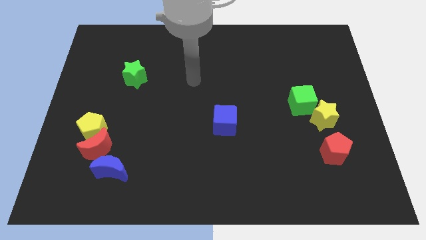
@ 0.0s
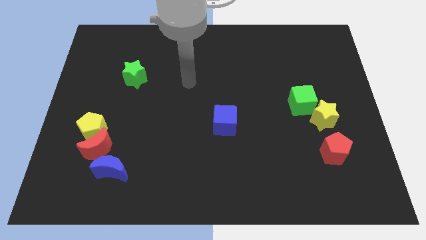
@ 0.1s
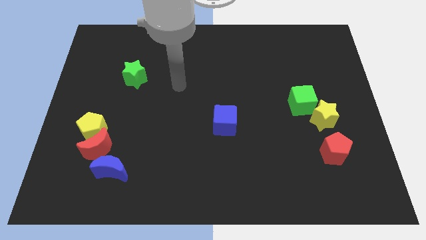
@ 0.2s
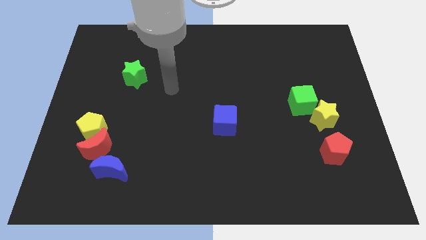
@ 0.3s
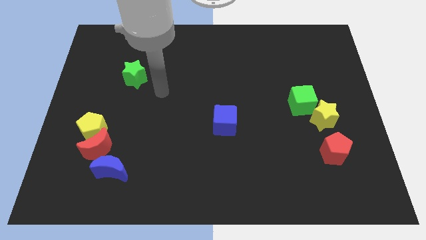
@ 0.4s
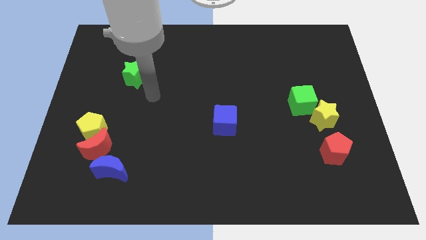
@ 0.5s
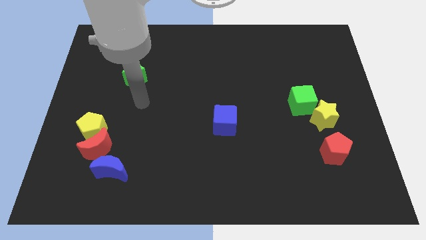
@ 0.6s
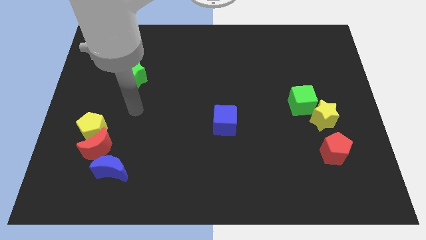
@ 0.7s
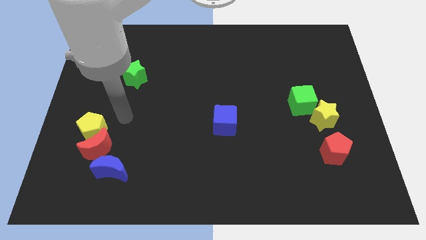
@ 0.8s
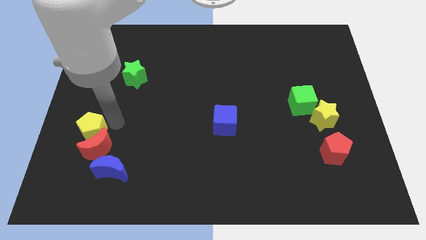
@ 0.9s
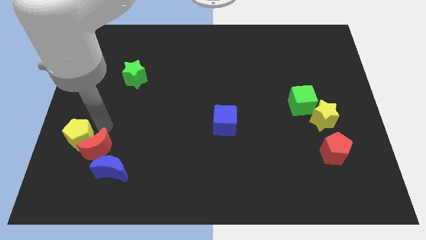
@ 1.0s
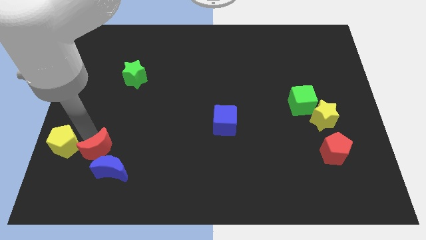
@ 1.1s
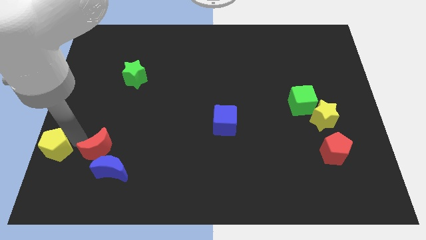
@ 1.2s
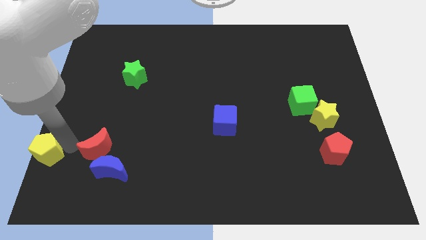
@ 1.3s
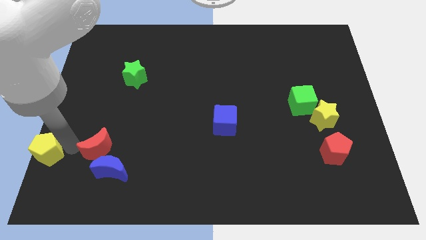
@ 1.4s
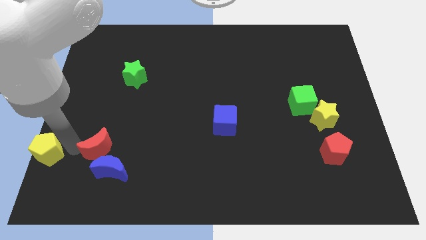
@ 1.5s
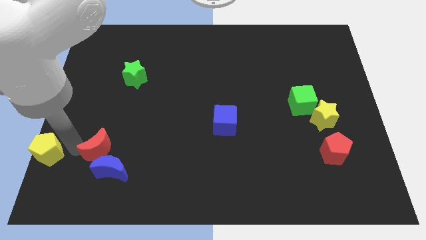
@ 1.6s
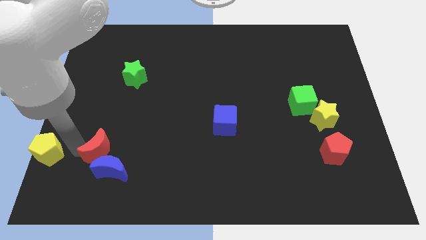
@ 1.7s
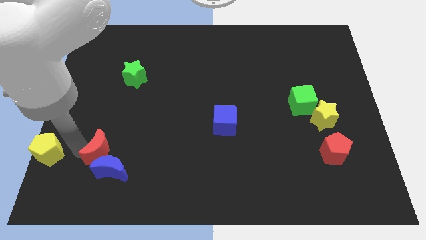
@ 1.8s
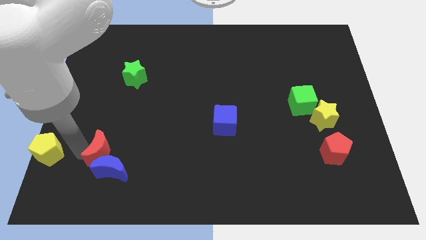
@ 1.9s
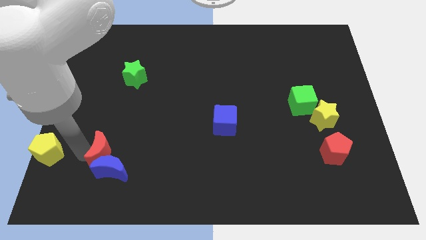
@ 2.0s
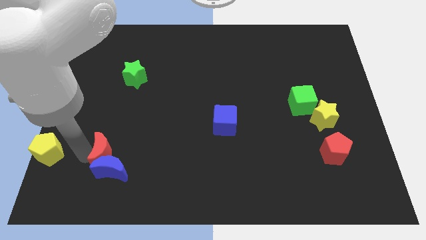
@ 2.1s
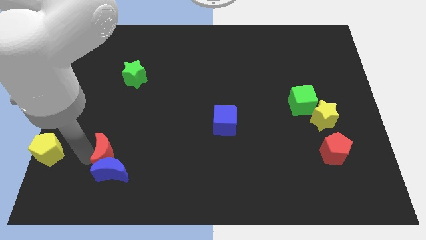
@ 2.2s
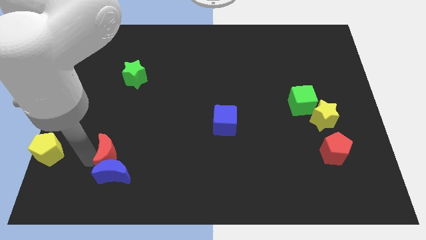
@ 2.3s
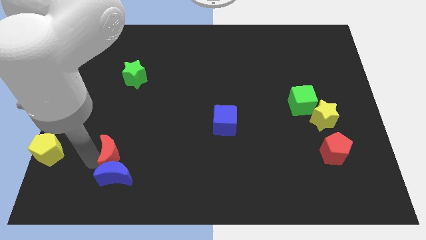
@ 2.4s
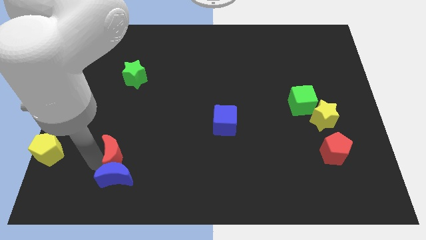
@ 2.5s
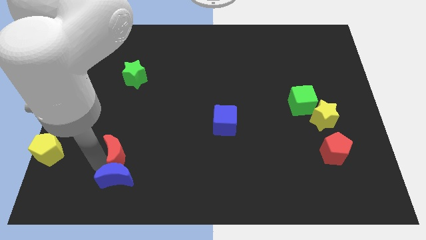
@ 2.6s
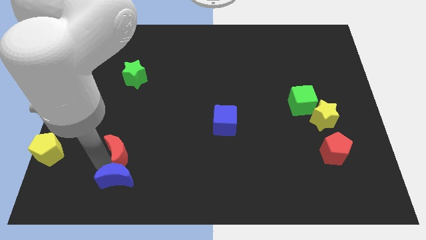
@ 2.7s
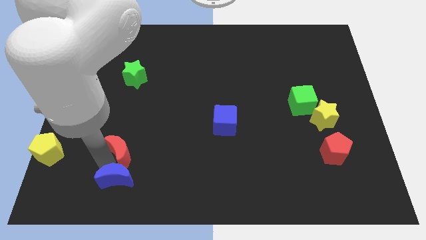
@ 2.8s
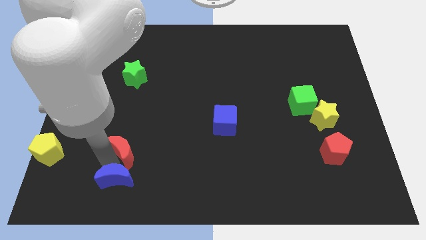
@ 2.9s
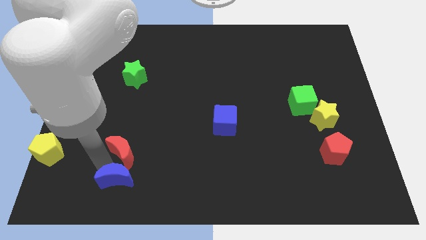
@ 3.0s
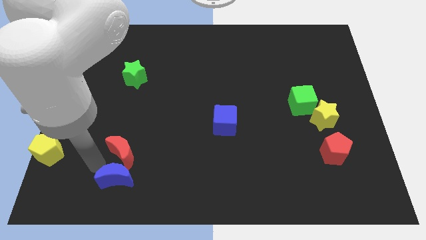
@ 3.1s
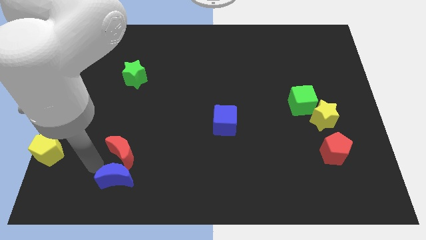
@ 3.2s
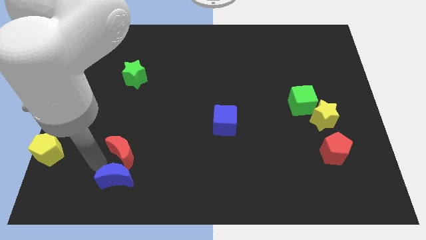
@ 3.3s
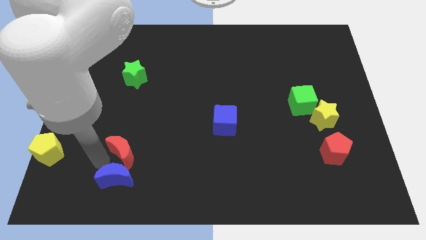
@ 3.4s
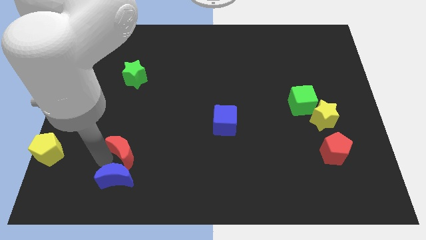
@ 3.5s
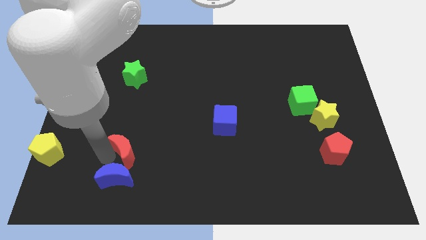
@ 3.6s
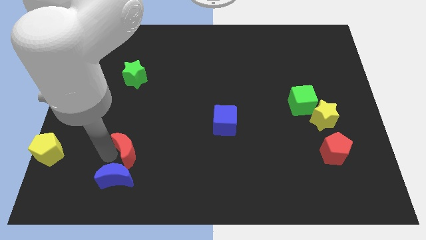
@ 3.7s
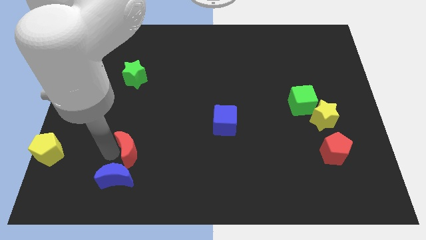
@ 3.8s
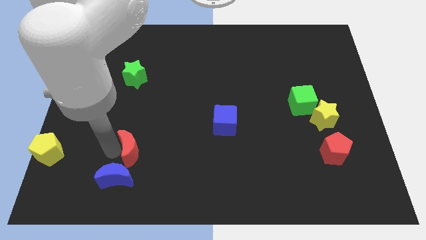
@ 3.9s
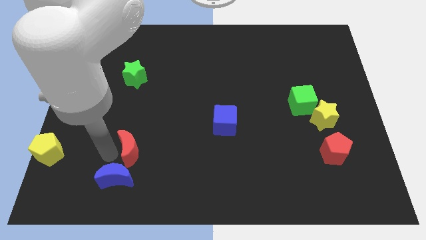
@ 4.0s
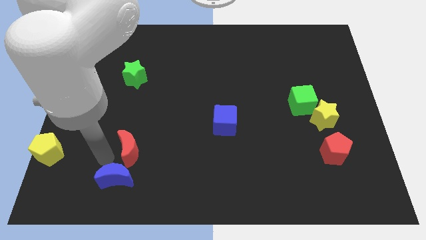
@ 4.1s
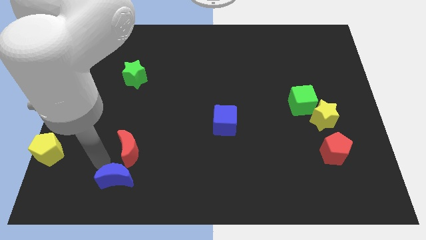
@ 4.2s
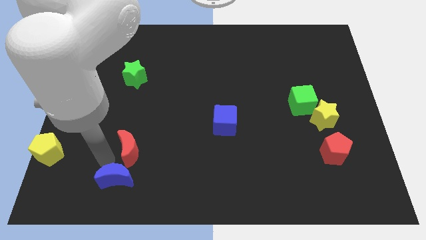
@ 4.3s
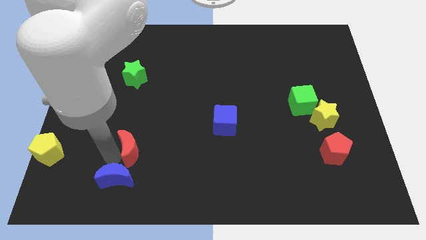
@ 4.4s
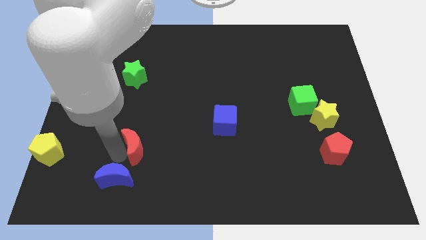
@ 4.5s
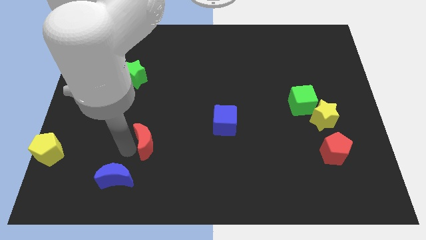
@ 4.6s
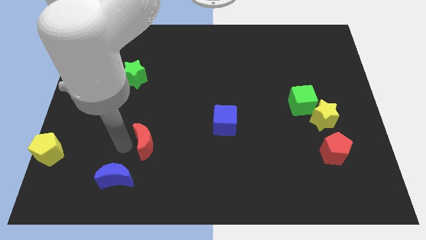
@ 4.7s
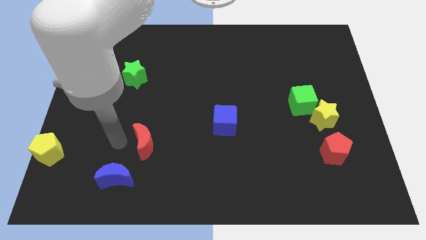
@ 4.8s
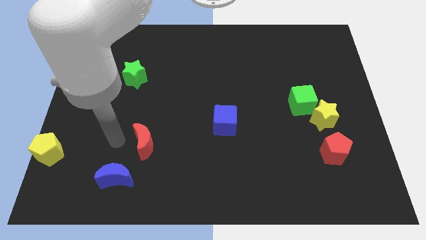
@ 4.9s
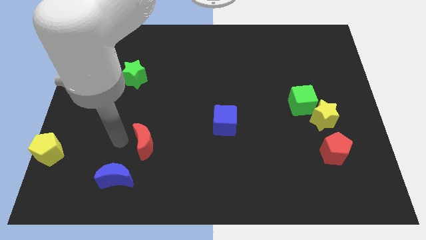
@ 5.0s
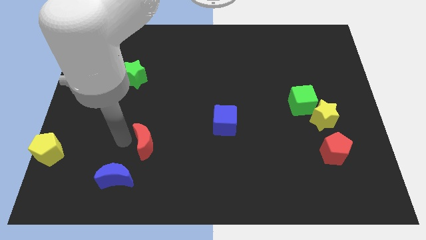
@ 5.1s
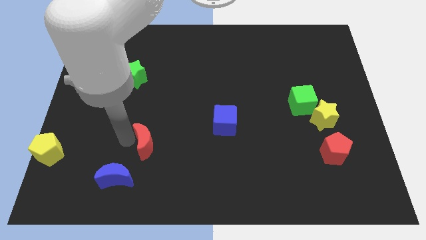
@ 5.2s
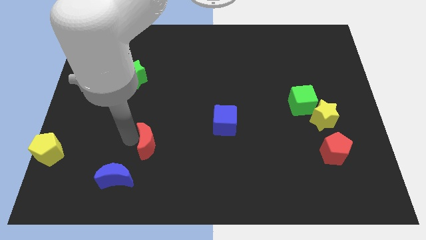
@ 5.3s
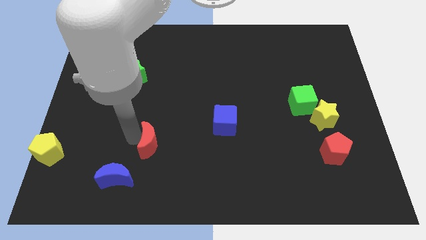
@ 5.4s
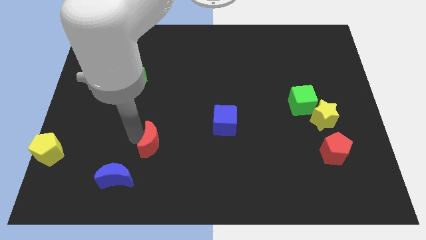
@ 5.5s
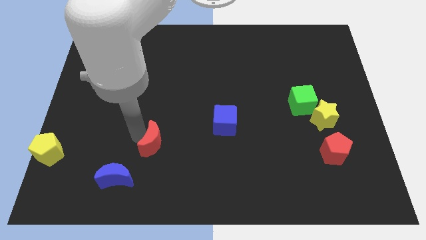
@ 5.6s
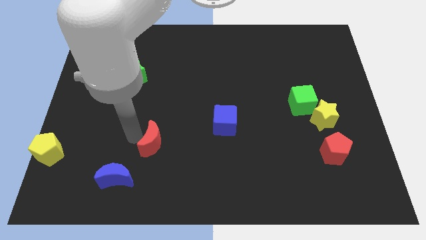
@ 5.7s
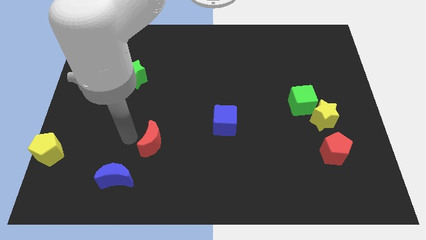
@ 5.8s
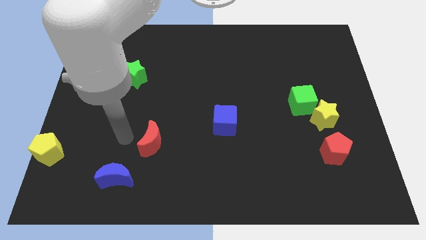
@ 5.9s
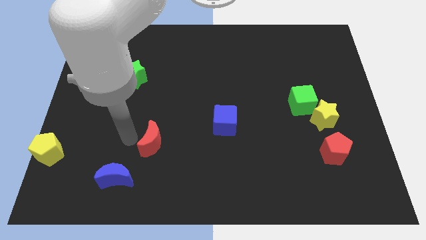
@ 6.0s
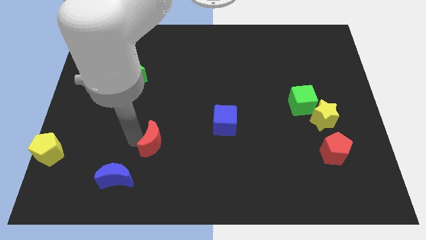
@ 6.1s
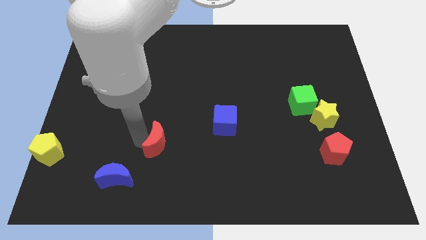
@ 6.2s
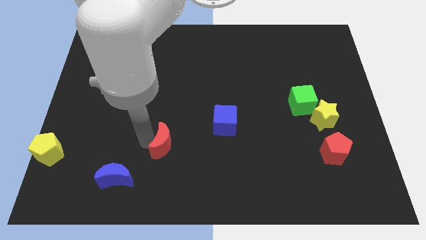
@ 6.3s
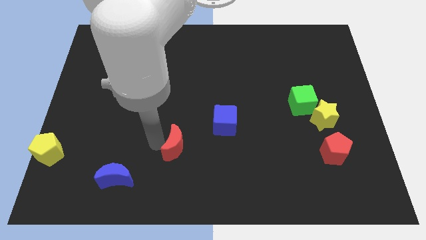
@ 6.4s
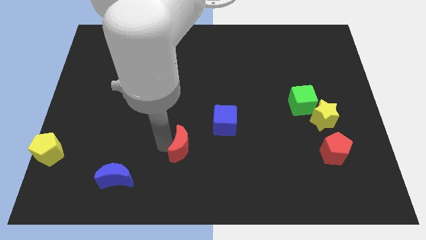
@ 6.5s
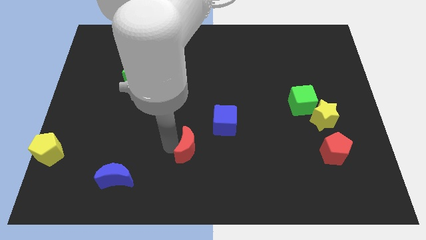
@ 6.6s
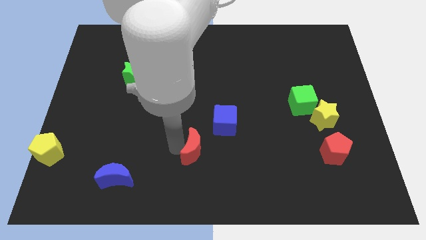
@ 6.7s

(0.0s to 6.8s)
slide the red moon right

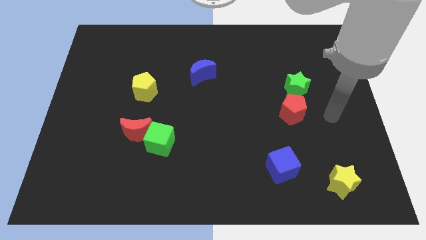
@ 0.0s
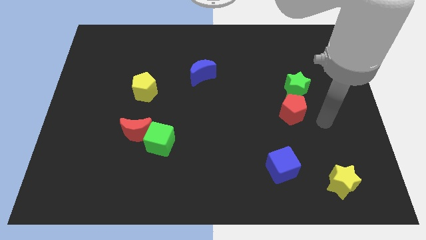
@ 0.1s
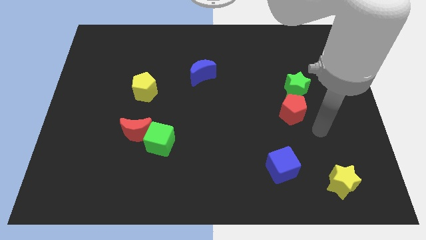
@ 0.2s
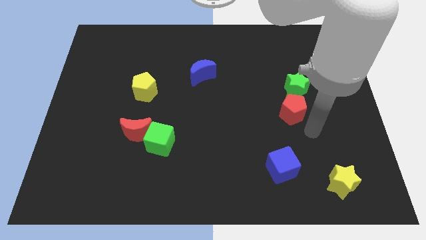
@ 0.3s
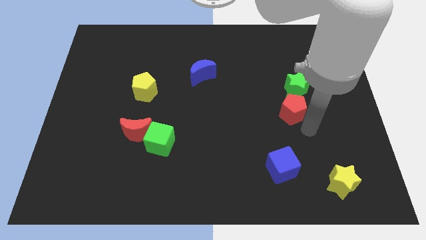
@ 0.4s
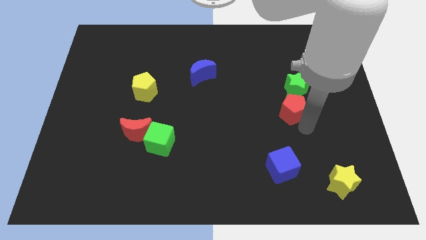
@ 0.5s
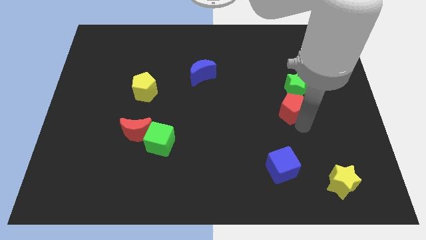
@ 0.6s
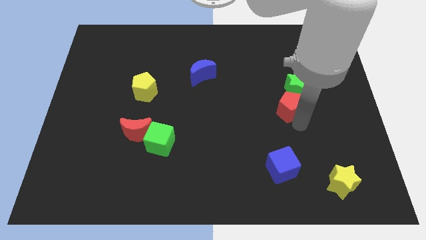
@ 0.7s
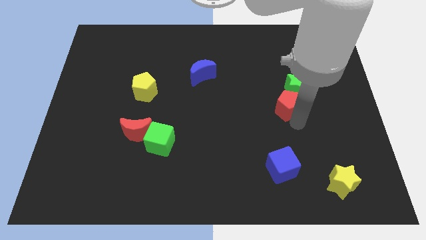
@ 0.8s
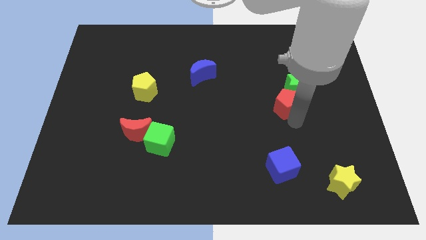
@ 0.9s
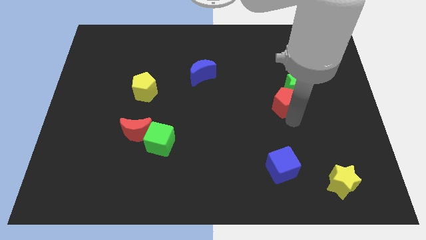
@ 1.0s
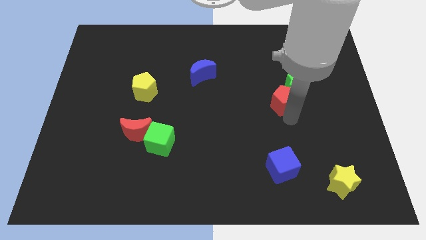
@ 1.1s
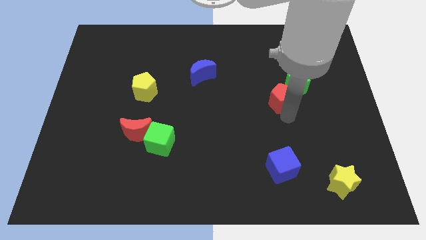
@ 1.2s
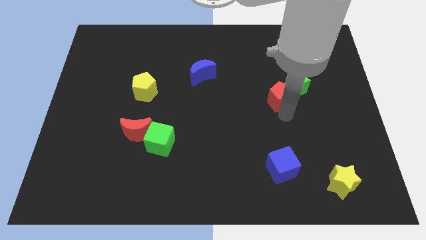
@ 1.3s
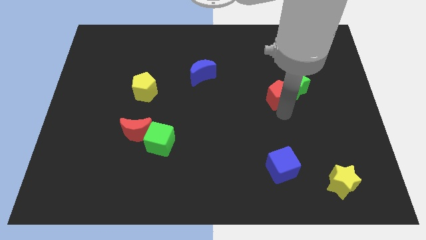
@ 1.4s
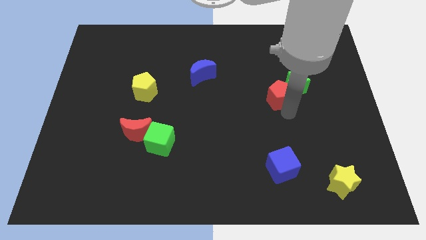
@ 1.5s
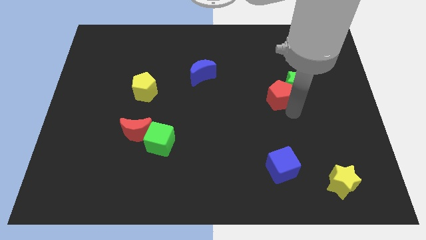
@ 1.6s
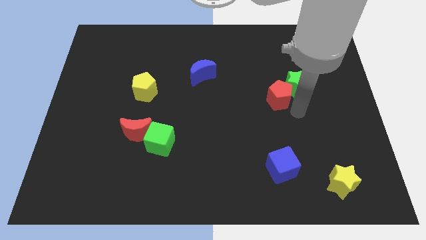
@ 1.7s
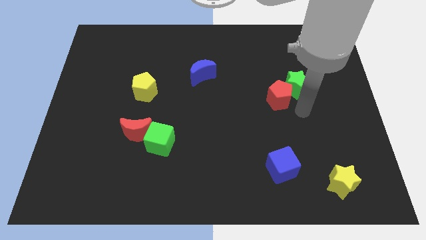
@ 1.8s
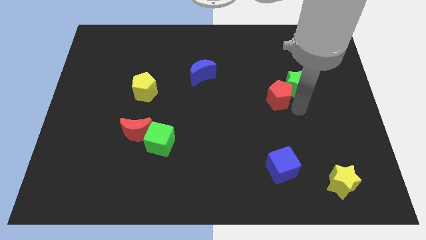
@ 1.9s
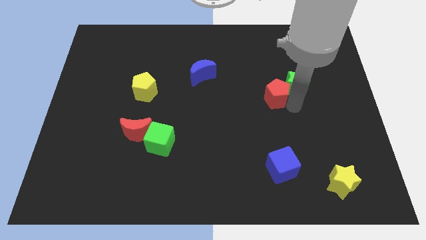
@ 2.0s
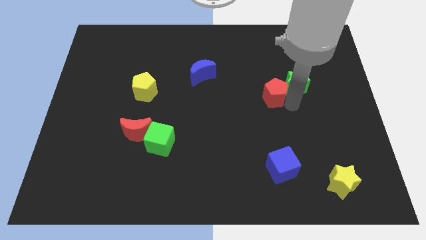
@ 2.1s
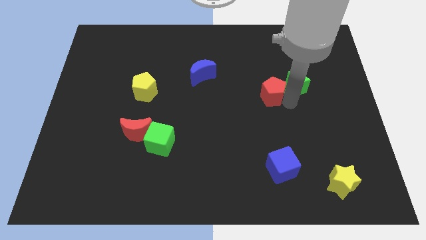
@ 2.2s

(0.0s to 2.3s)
push the red pentagon somewhat up and to the left
